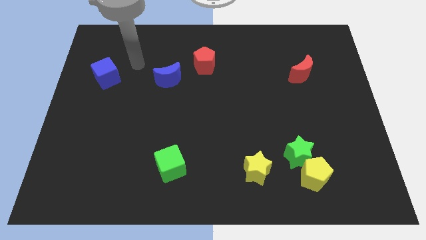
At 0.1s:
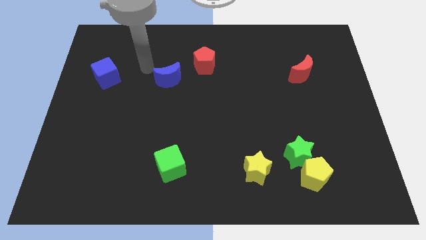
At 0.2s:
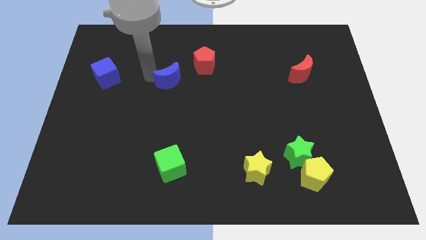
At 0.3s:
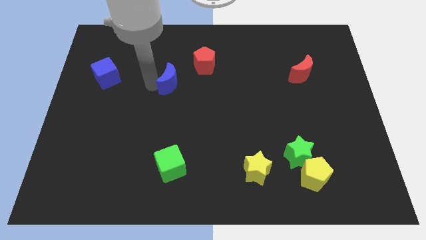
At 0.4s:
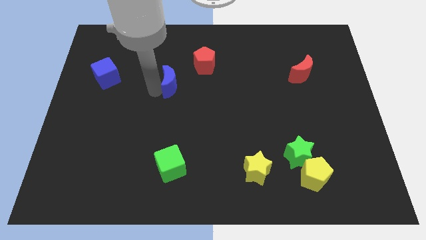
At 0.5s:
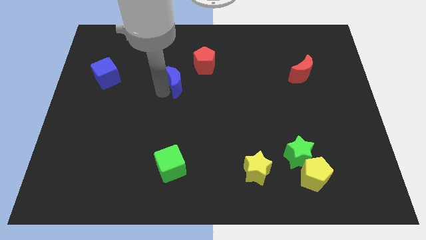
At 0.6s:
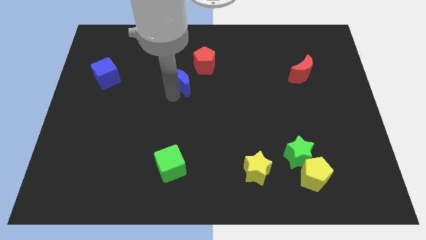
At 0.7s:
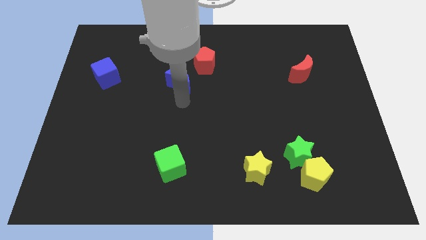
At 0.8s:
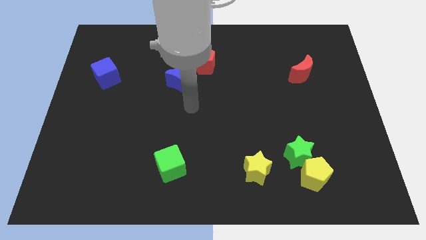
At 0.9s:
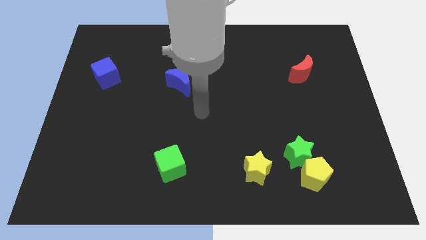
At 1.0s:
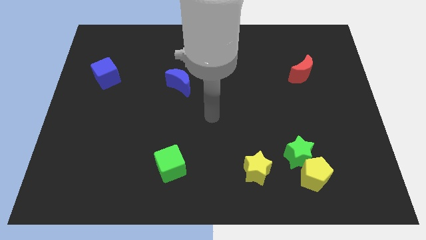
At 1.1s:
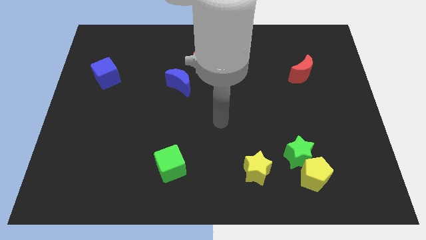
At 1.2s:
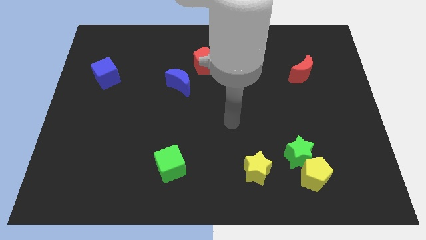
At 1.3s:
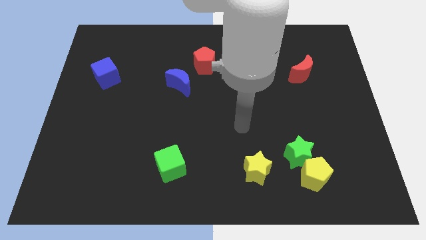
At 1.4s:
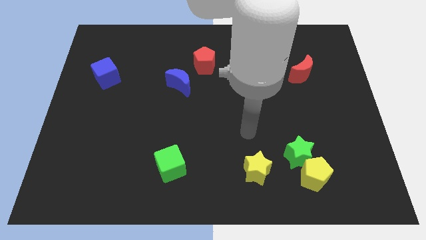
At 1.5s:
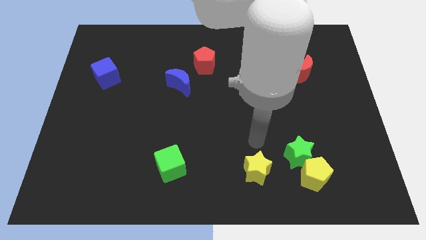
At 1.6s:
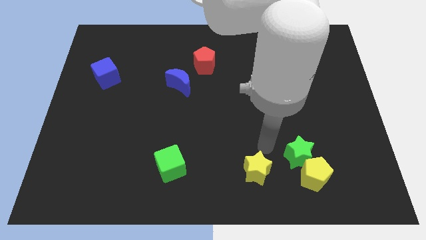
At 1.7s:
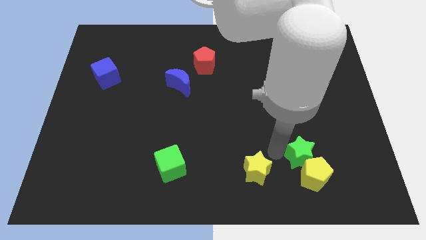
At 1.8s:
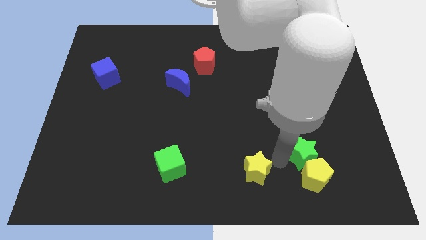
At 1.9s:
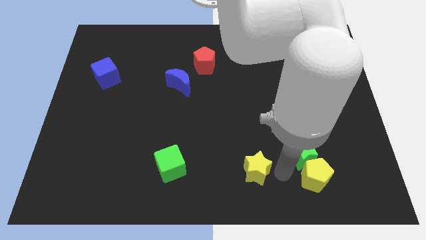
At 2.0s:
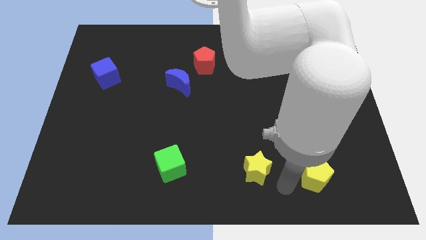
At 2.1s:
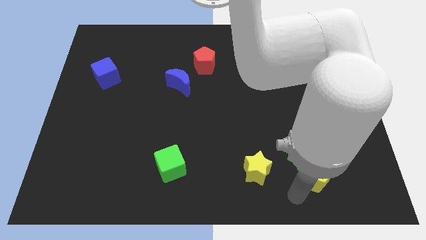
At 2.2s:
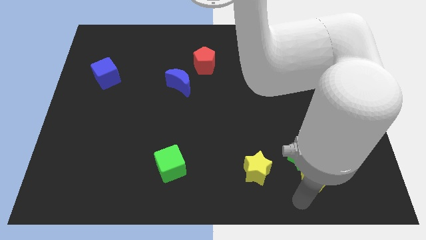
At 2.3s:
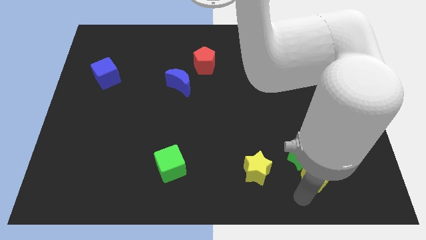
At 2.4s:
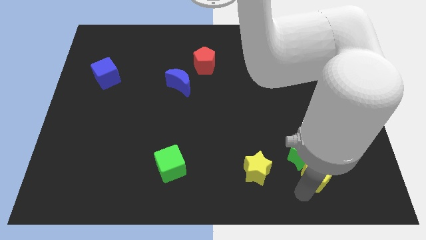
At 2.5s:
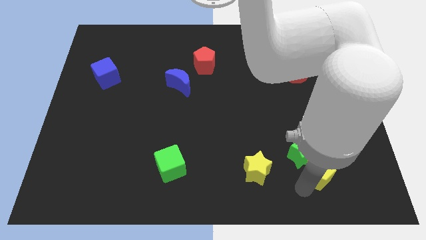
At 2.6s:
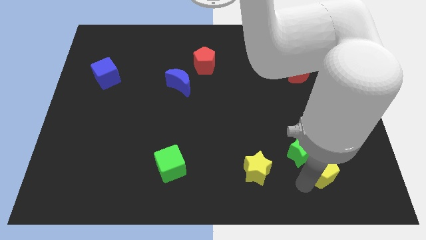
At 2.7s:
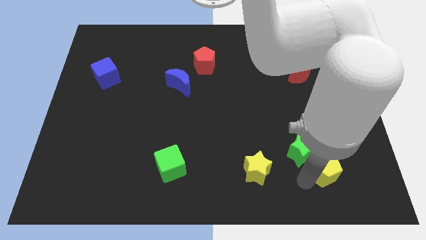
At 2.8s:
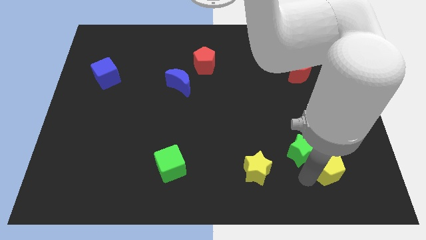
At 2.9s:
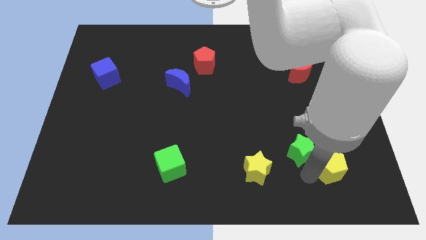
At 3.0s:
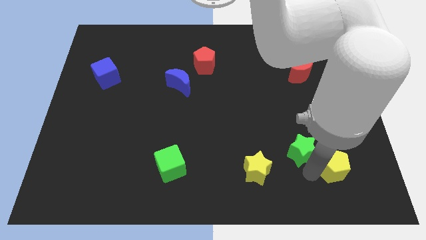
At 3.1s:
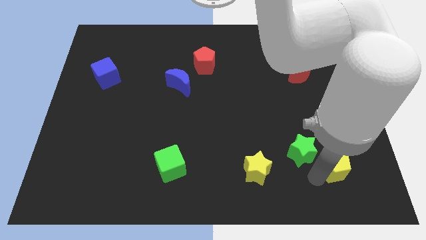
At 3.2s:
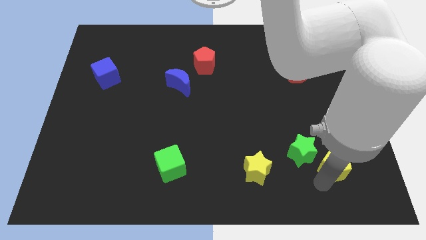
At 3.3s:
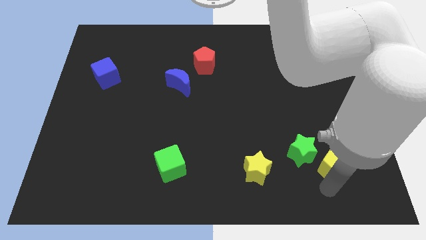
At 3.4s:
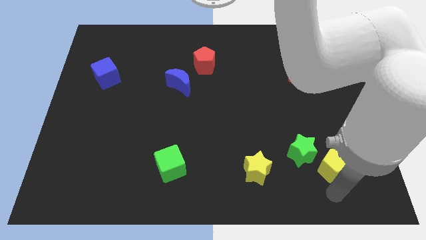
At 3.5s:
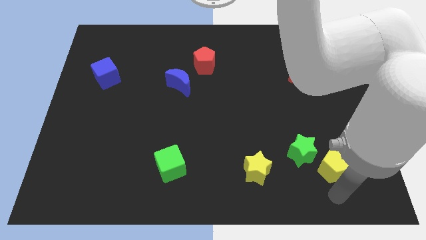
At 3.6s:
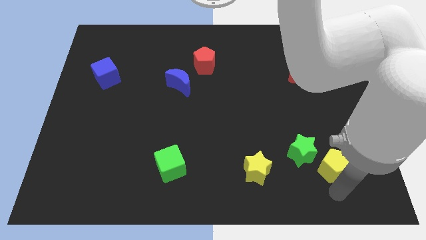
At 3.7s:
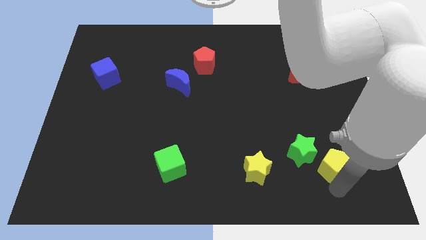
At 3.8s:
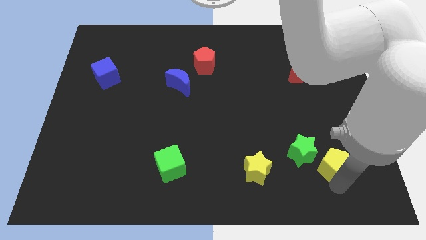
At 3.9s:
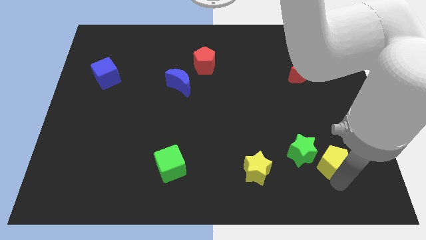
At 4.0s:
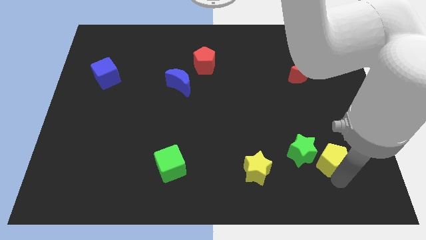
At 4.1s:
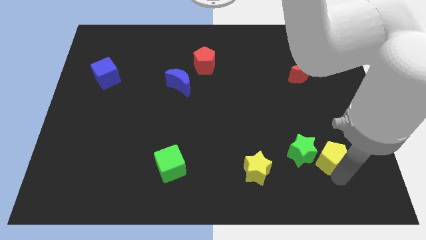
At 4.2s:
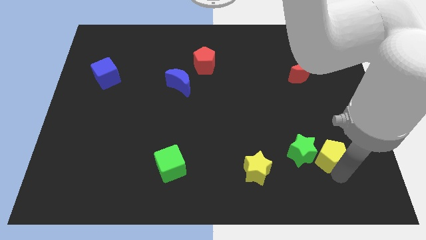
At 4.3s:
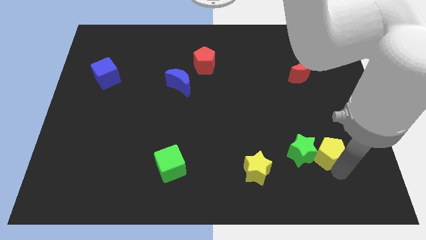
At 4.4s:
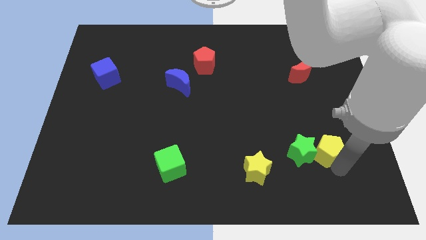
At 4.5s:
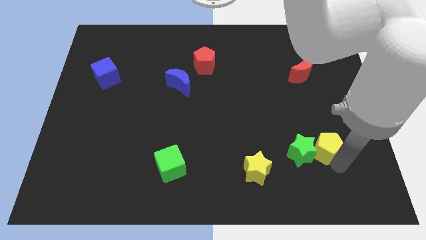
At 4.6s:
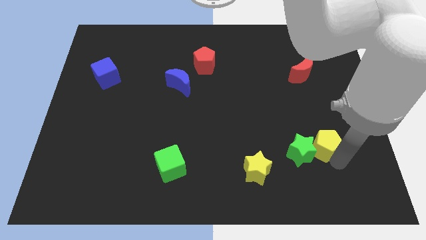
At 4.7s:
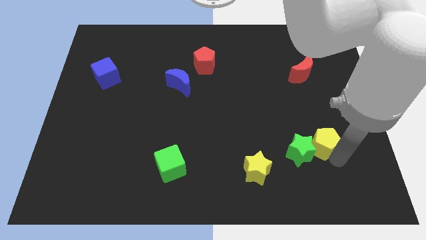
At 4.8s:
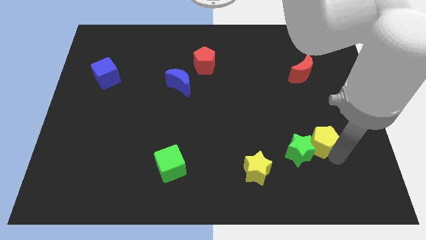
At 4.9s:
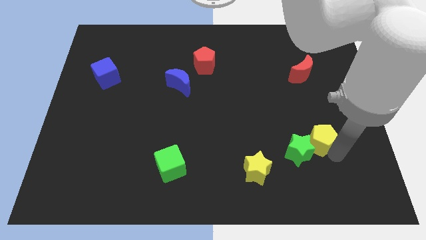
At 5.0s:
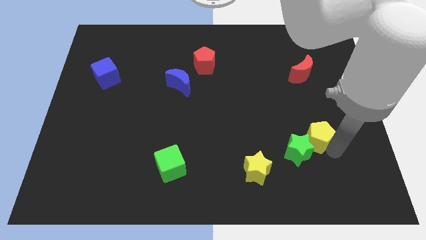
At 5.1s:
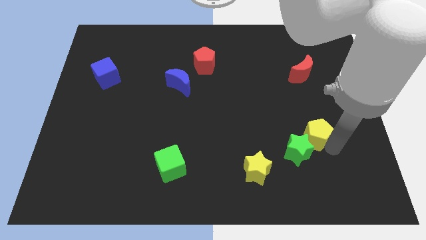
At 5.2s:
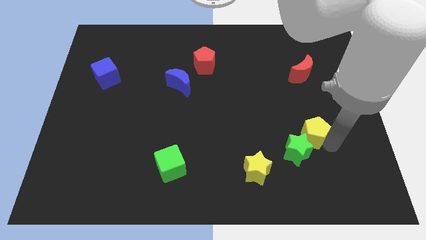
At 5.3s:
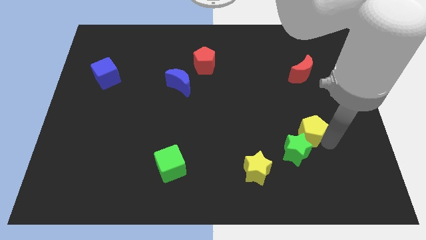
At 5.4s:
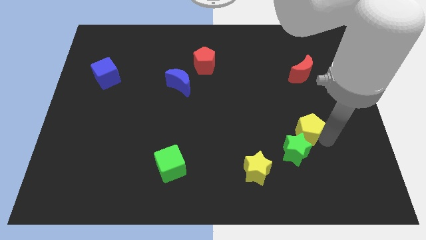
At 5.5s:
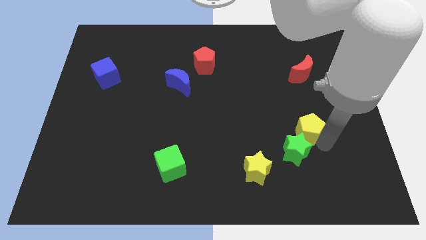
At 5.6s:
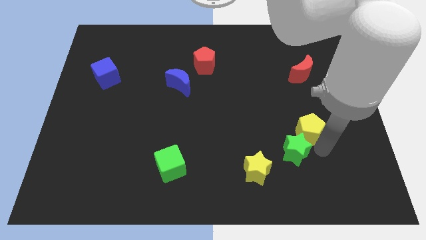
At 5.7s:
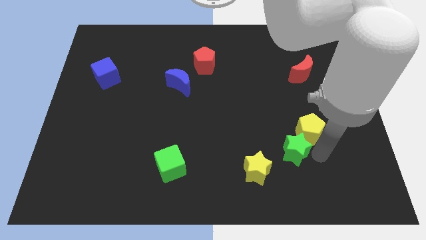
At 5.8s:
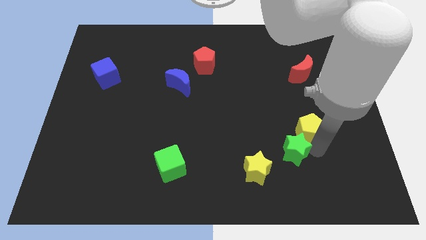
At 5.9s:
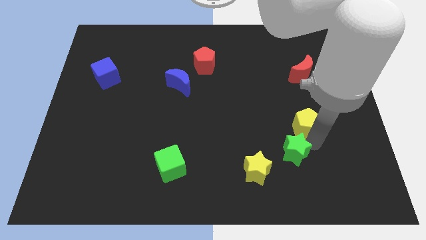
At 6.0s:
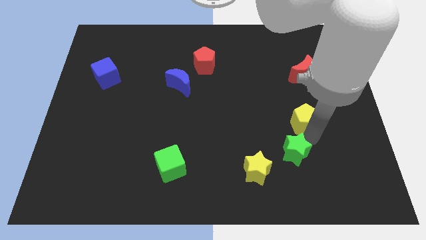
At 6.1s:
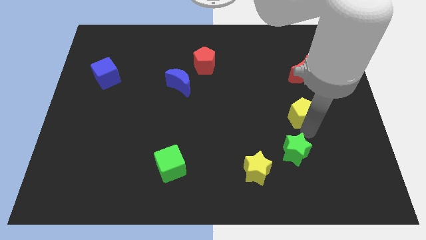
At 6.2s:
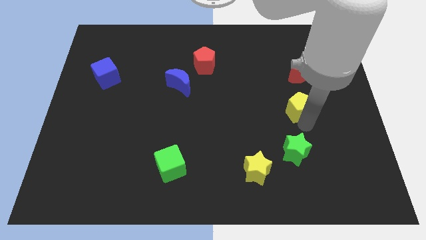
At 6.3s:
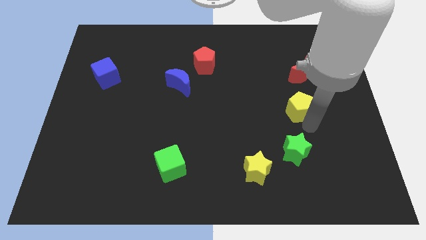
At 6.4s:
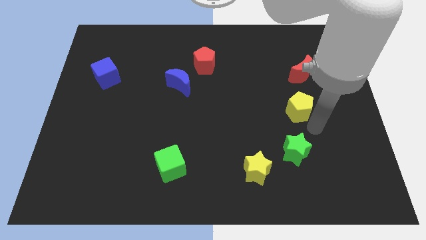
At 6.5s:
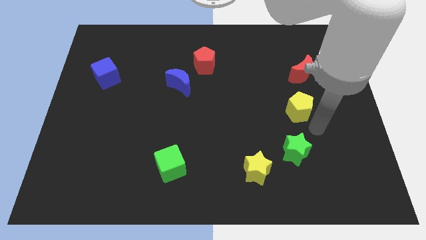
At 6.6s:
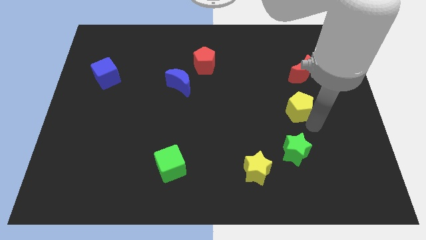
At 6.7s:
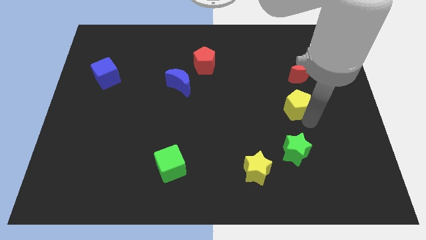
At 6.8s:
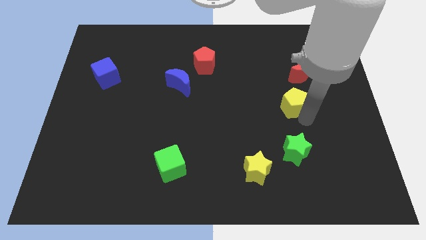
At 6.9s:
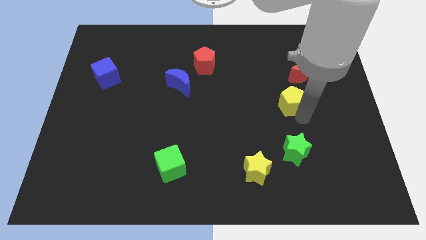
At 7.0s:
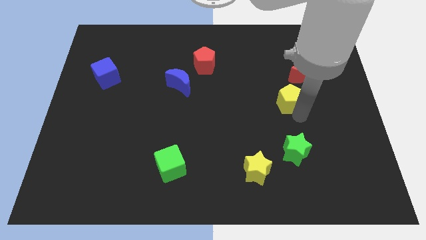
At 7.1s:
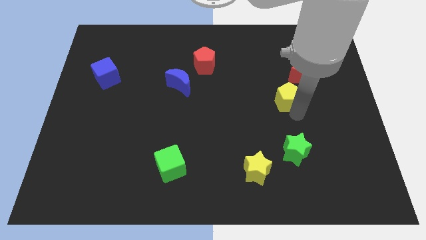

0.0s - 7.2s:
slide the yellow pentagon up

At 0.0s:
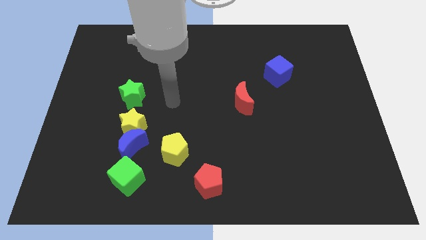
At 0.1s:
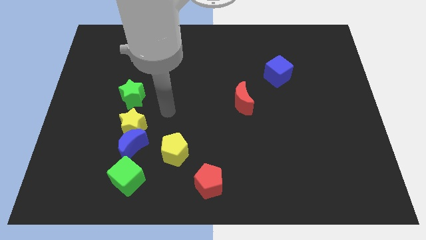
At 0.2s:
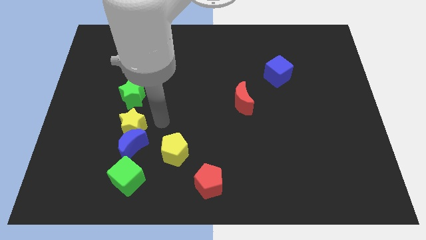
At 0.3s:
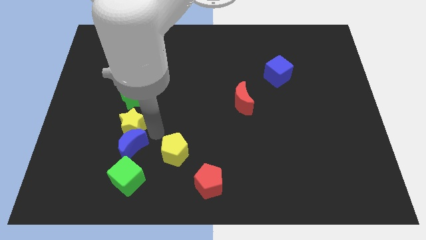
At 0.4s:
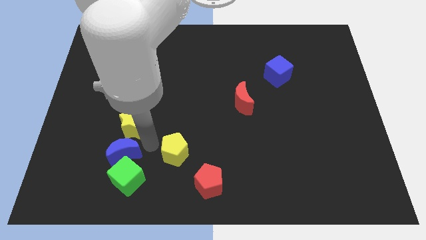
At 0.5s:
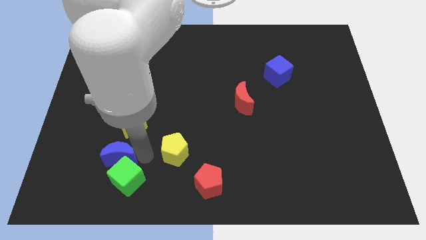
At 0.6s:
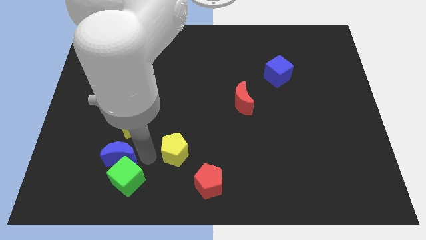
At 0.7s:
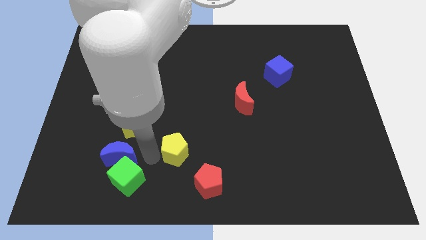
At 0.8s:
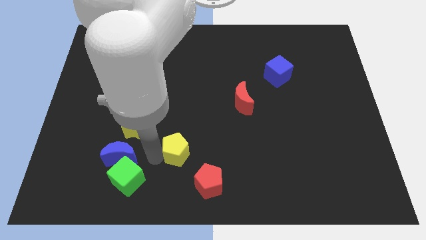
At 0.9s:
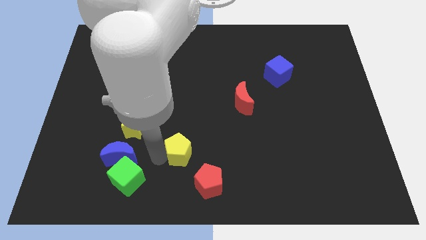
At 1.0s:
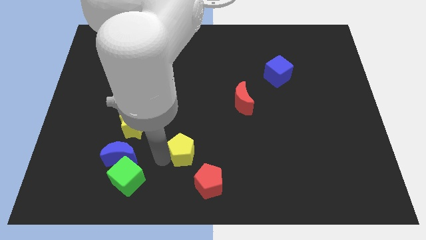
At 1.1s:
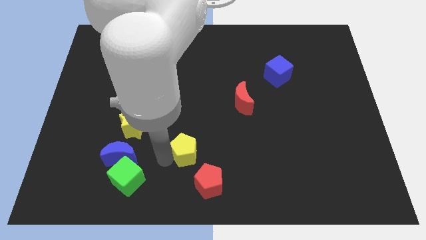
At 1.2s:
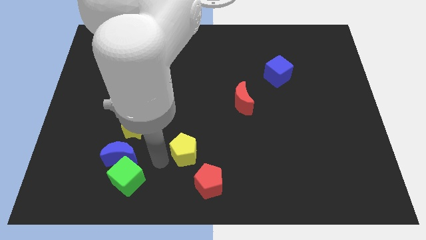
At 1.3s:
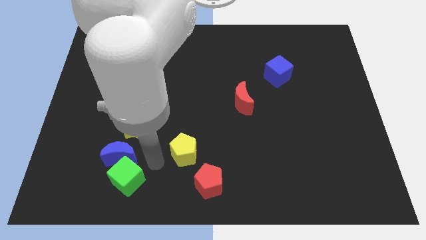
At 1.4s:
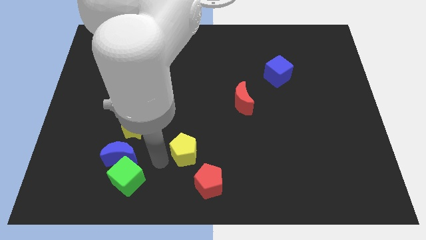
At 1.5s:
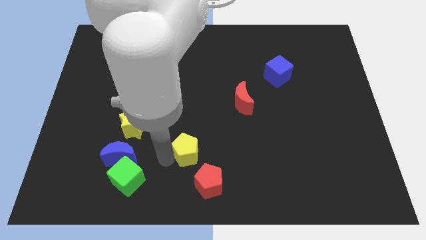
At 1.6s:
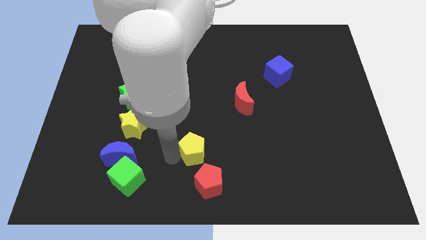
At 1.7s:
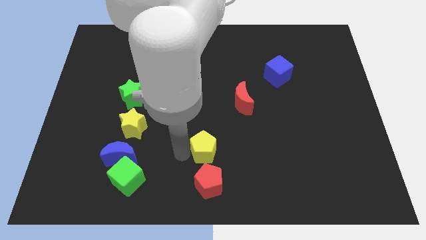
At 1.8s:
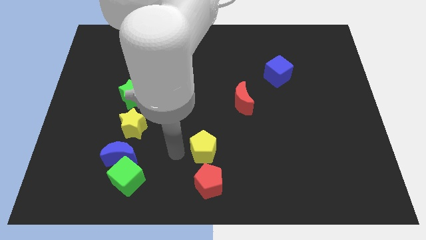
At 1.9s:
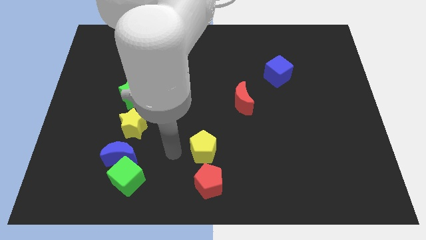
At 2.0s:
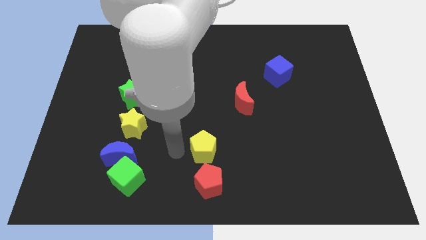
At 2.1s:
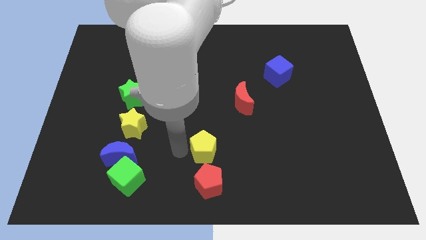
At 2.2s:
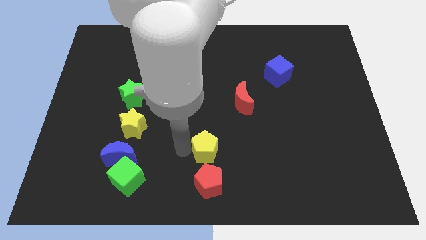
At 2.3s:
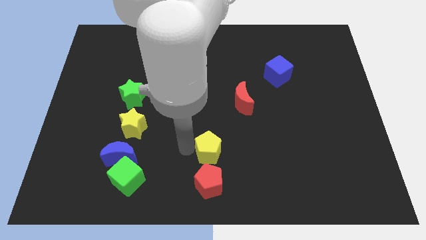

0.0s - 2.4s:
slightly slide the yellow pentagon to the right
